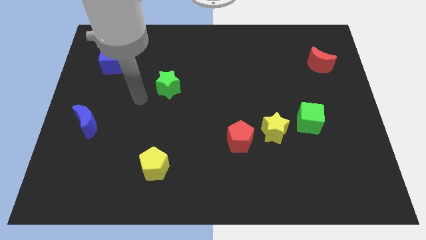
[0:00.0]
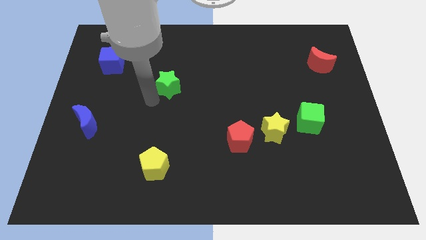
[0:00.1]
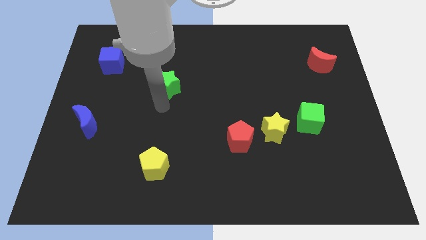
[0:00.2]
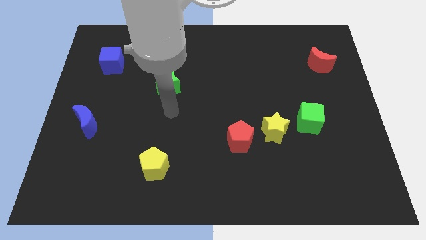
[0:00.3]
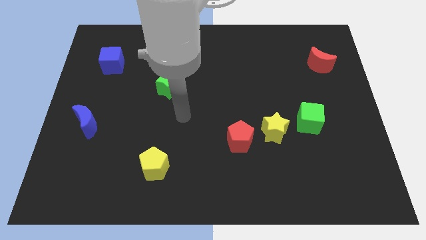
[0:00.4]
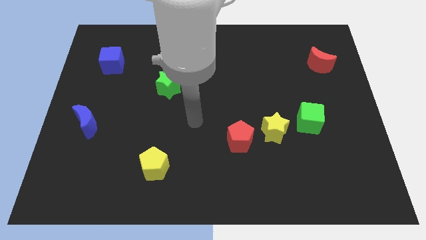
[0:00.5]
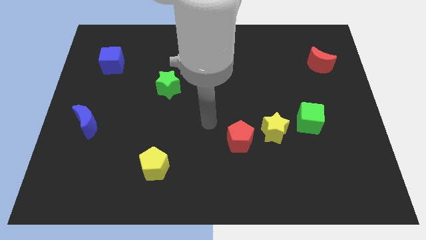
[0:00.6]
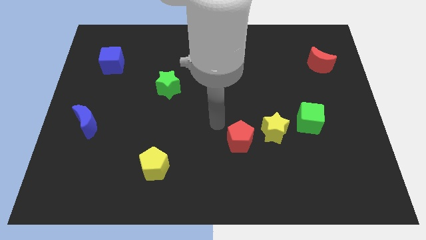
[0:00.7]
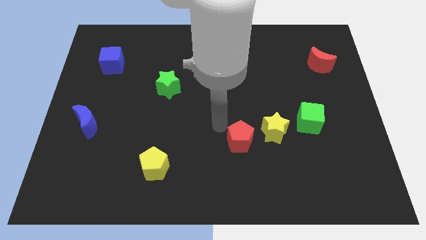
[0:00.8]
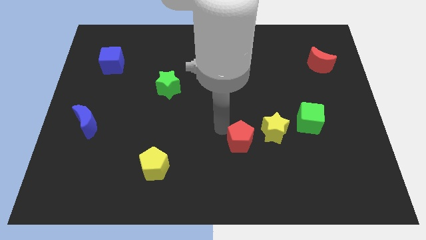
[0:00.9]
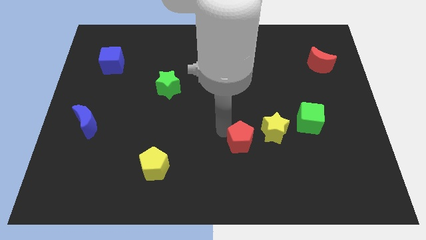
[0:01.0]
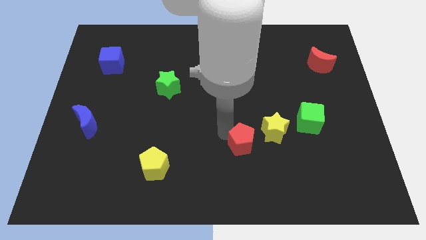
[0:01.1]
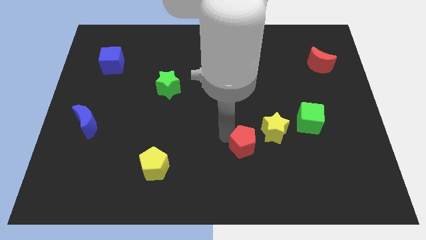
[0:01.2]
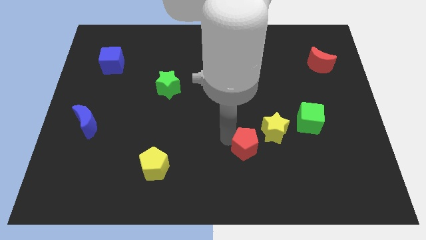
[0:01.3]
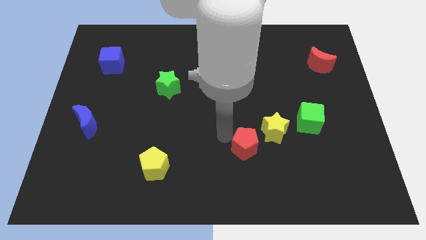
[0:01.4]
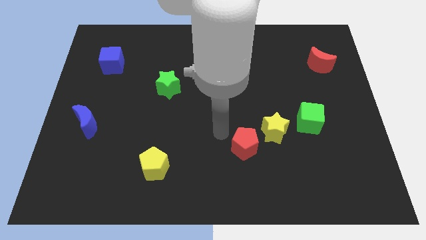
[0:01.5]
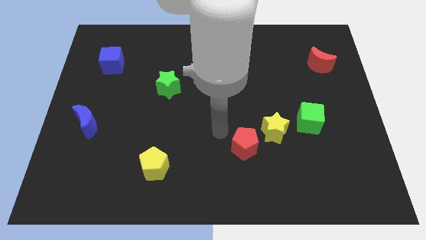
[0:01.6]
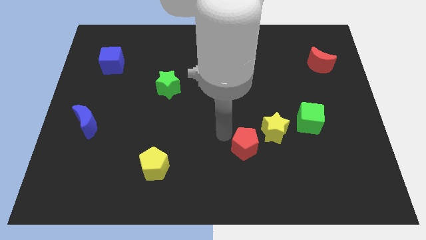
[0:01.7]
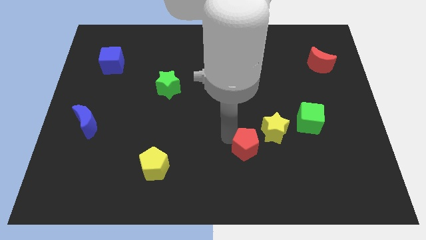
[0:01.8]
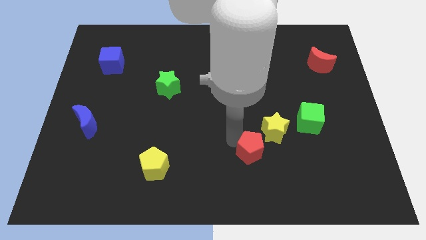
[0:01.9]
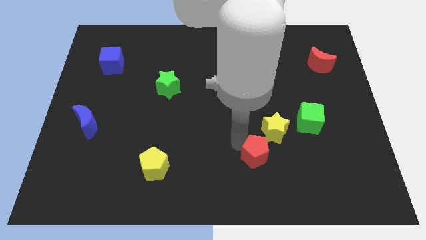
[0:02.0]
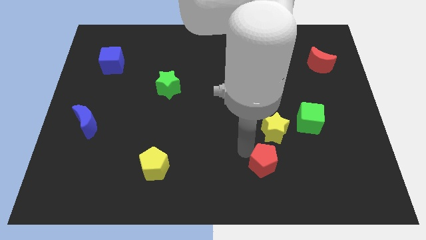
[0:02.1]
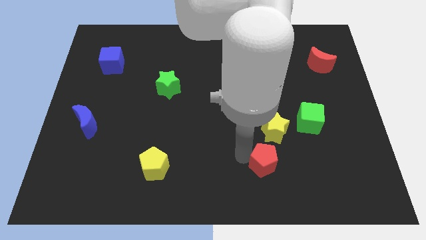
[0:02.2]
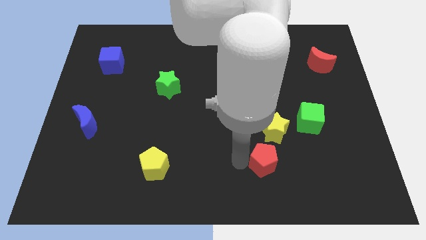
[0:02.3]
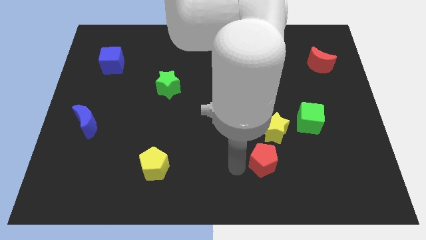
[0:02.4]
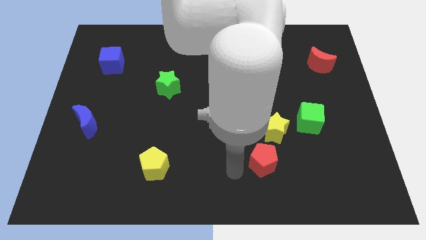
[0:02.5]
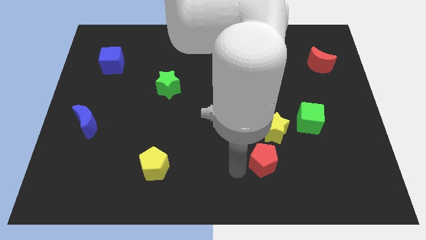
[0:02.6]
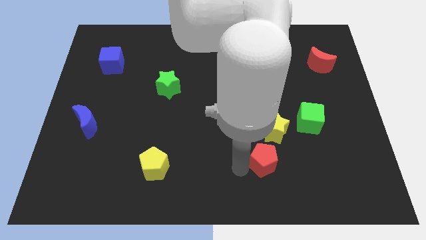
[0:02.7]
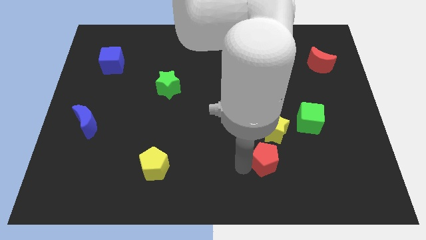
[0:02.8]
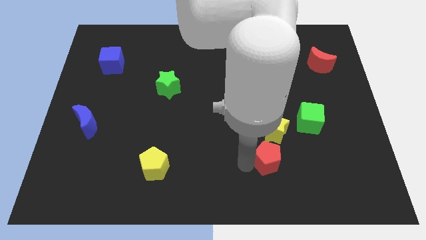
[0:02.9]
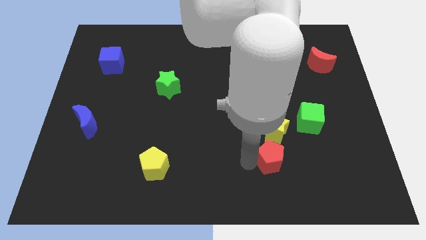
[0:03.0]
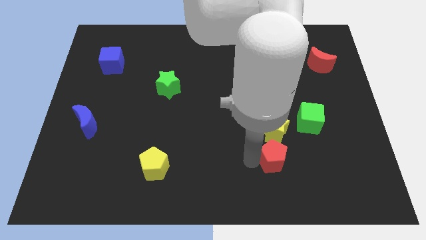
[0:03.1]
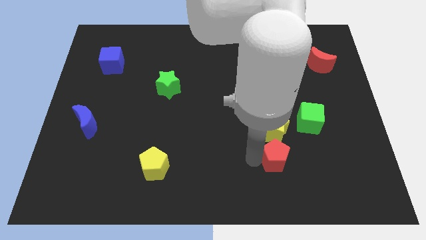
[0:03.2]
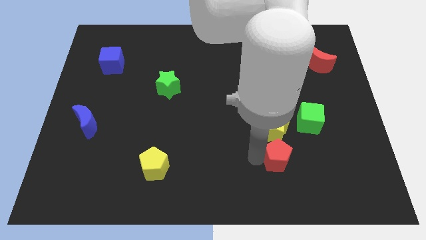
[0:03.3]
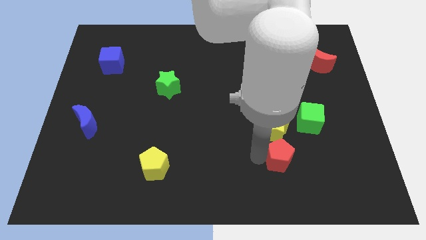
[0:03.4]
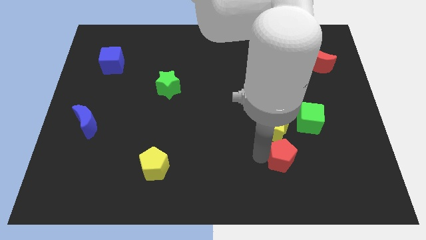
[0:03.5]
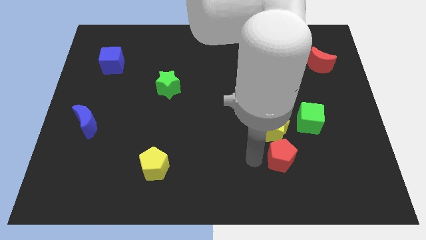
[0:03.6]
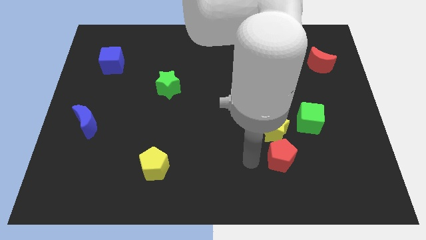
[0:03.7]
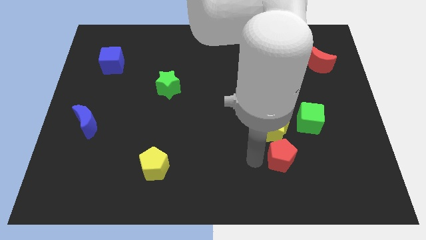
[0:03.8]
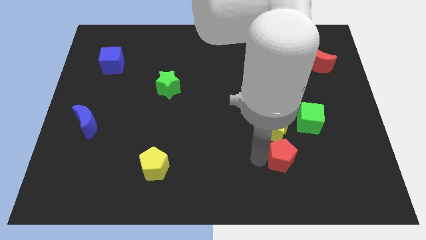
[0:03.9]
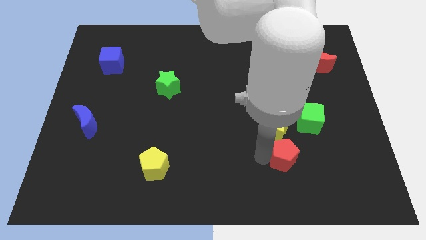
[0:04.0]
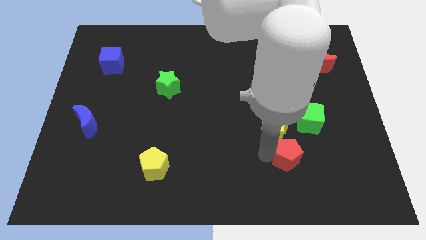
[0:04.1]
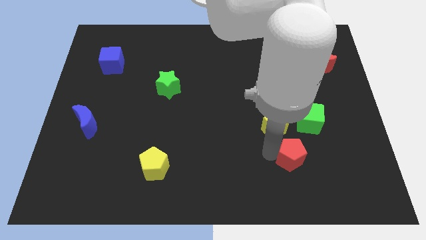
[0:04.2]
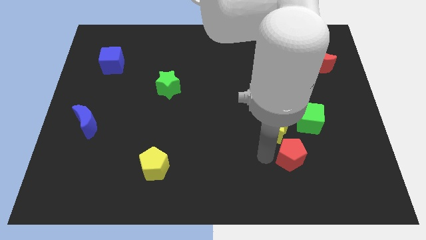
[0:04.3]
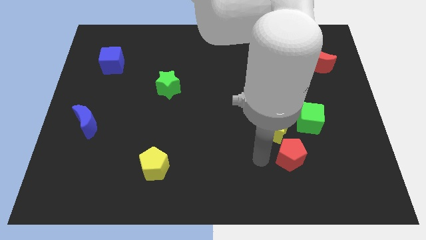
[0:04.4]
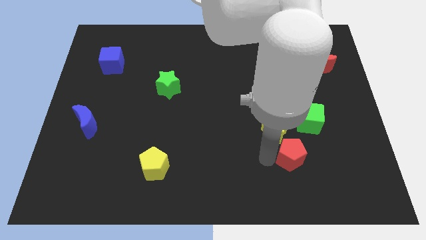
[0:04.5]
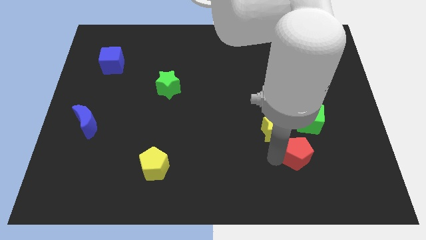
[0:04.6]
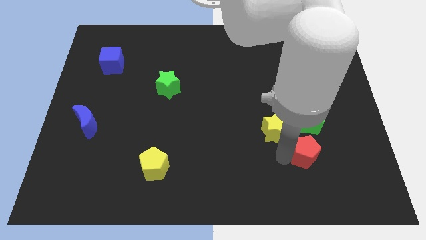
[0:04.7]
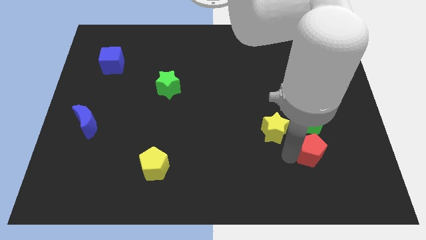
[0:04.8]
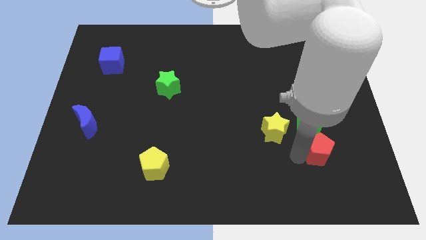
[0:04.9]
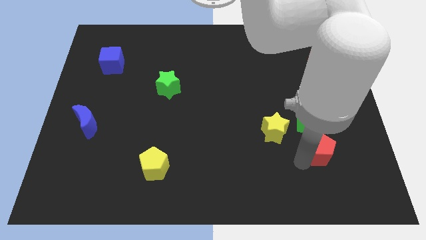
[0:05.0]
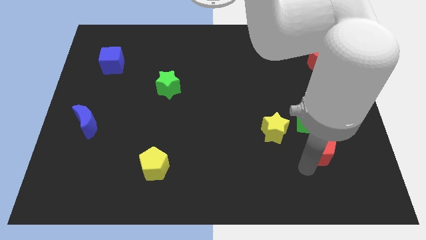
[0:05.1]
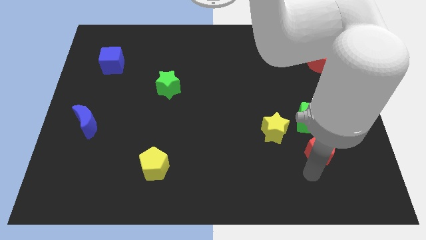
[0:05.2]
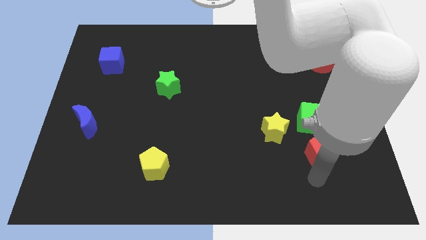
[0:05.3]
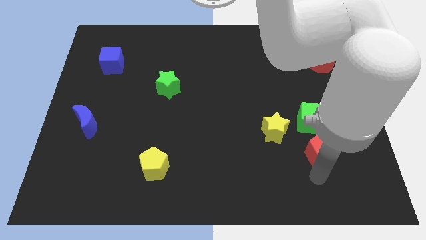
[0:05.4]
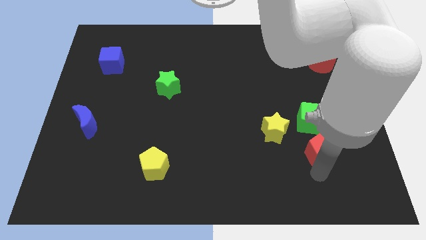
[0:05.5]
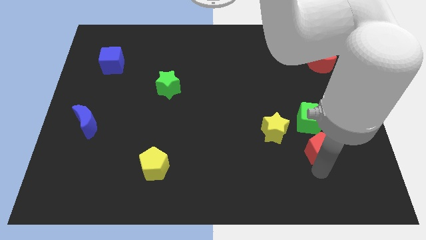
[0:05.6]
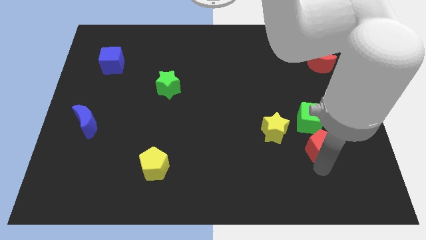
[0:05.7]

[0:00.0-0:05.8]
put the red pentagon right of the yellow star

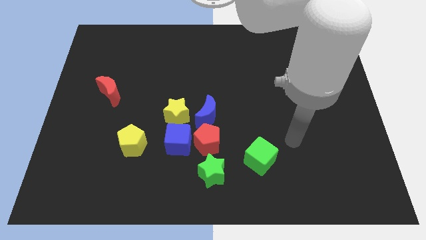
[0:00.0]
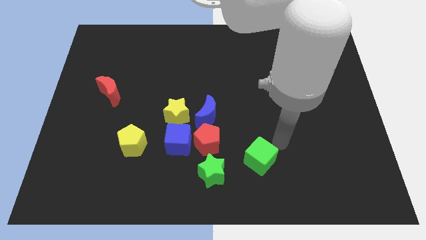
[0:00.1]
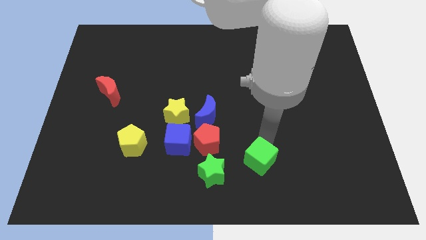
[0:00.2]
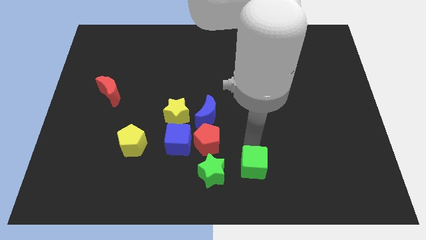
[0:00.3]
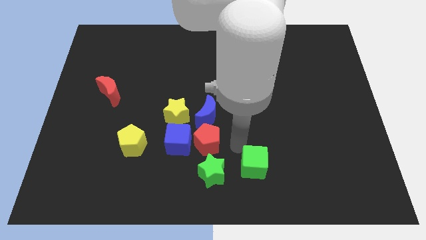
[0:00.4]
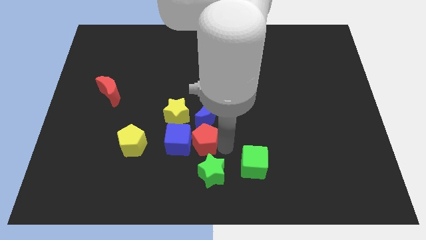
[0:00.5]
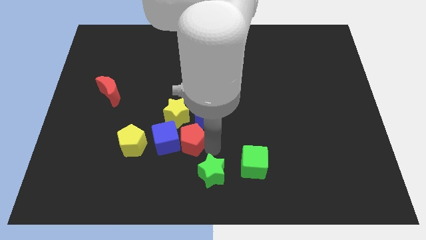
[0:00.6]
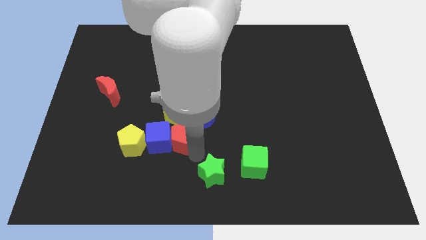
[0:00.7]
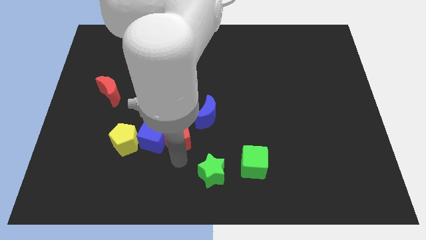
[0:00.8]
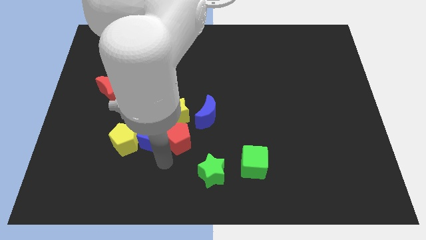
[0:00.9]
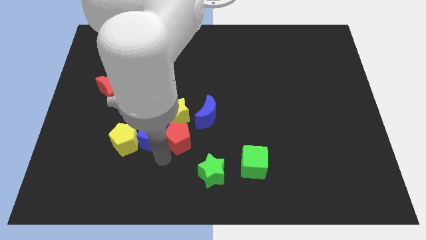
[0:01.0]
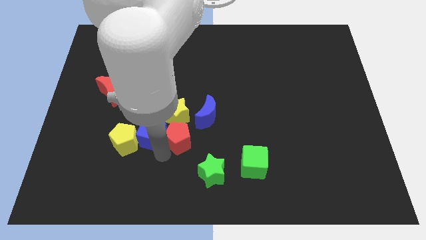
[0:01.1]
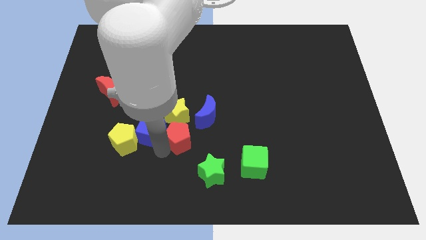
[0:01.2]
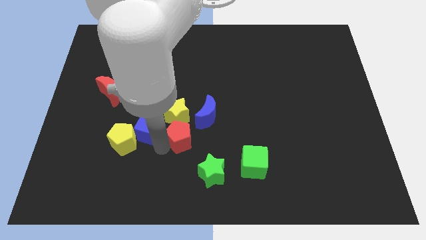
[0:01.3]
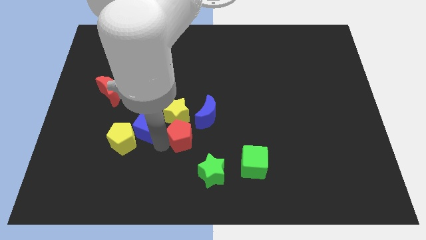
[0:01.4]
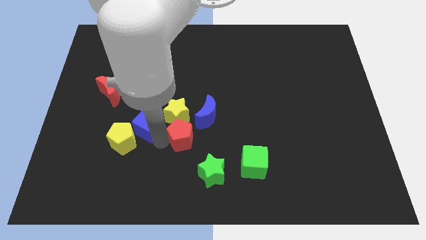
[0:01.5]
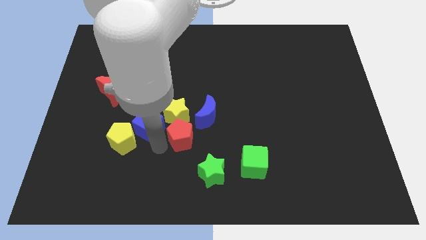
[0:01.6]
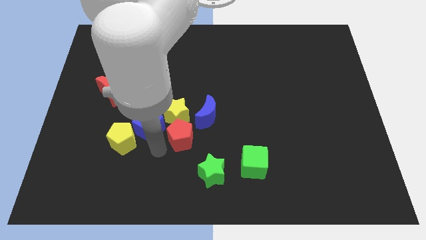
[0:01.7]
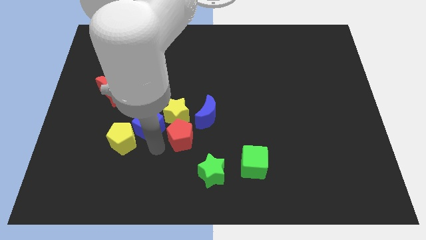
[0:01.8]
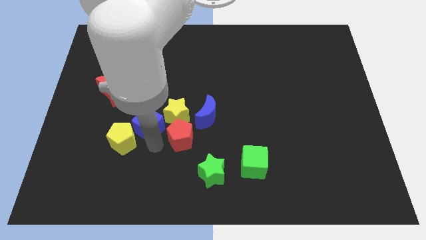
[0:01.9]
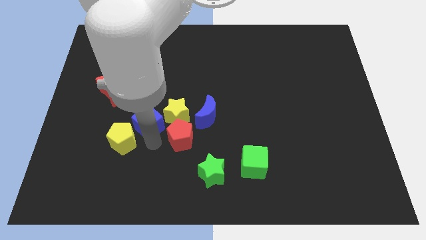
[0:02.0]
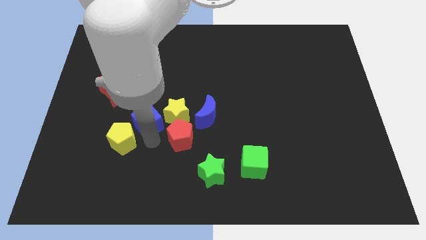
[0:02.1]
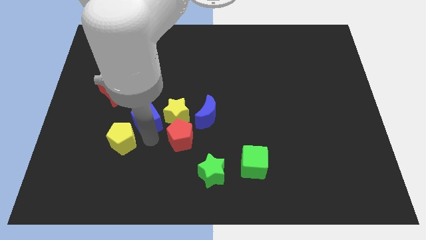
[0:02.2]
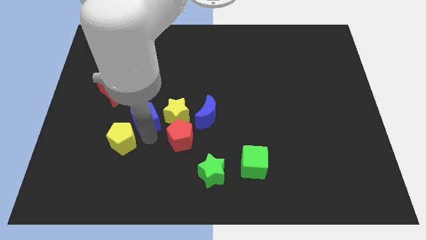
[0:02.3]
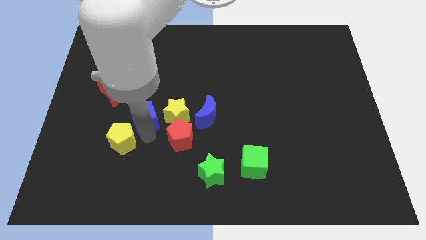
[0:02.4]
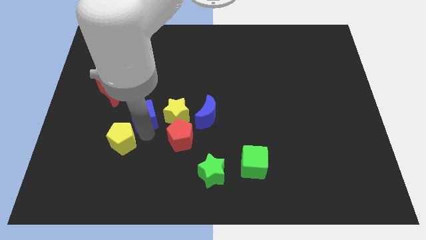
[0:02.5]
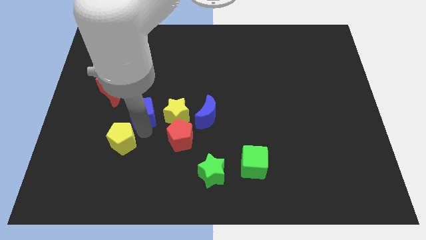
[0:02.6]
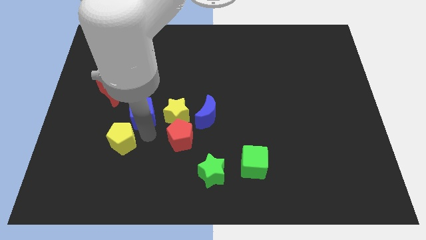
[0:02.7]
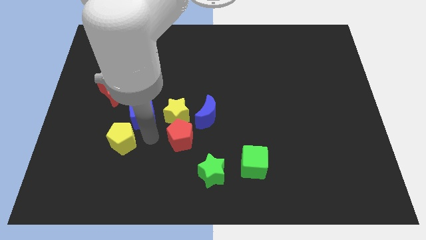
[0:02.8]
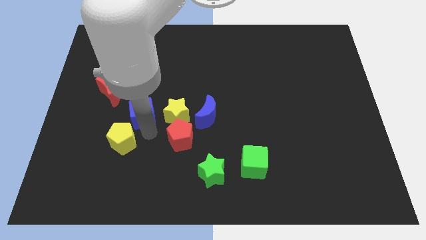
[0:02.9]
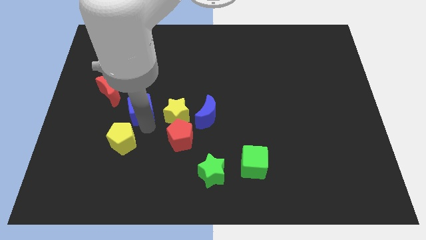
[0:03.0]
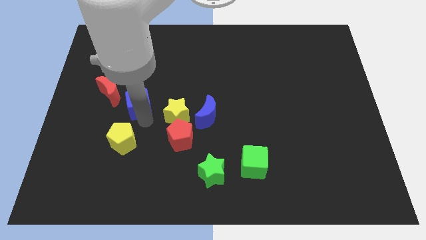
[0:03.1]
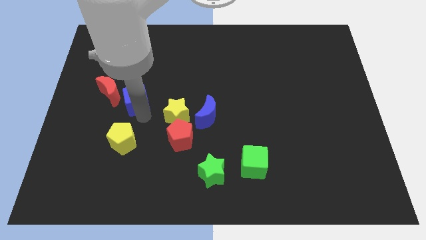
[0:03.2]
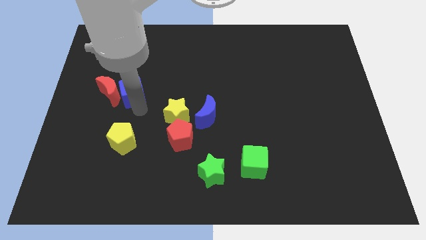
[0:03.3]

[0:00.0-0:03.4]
push the blue cube to the top right side of the red moon
